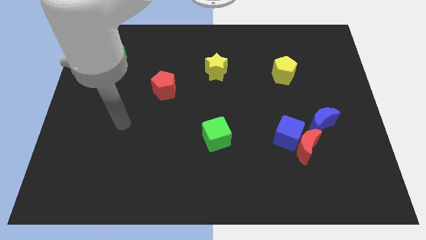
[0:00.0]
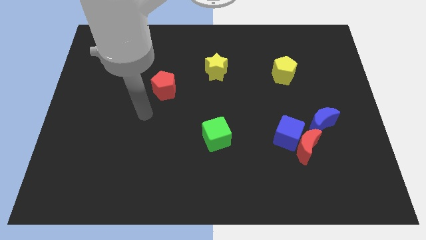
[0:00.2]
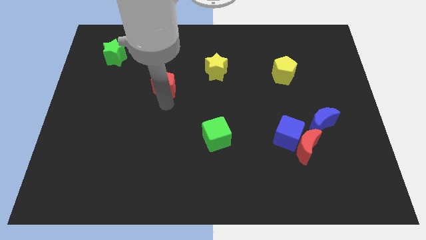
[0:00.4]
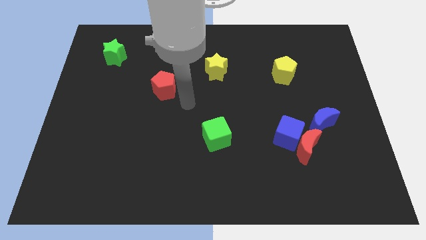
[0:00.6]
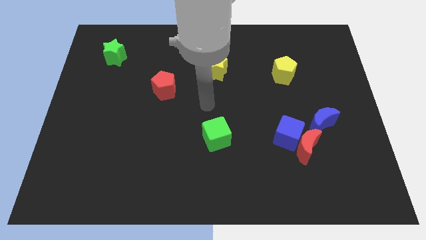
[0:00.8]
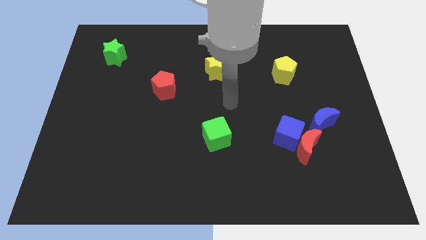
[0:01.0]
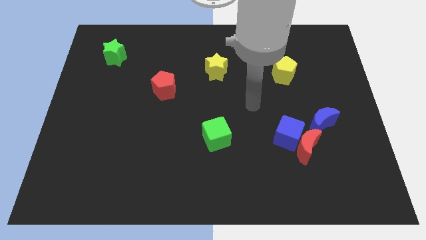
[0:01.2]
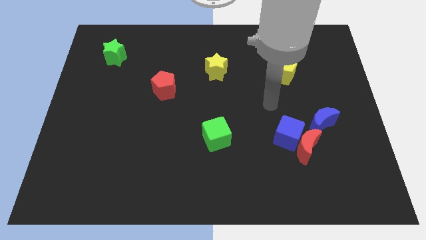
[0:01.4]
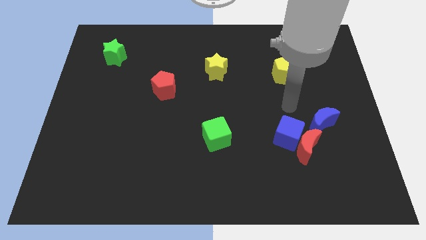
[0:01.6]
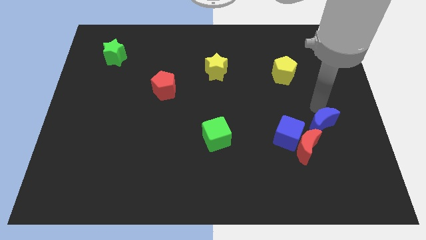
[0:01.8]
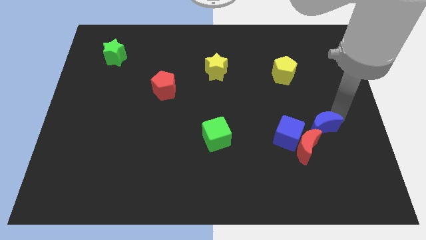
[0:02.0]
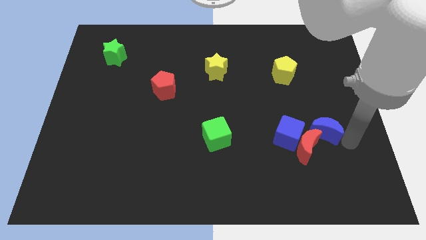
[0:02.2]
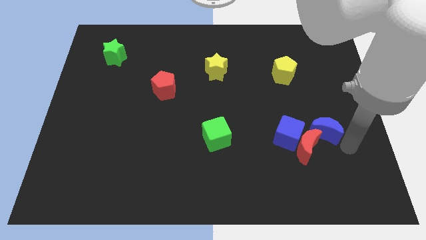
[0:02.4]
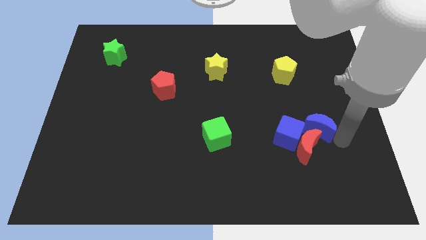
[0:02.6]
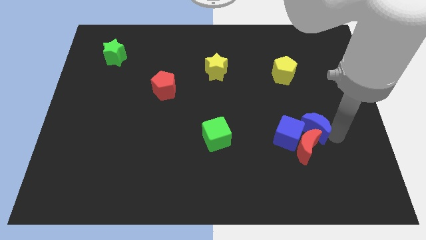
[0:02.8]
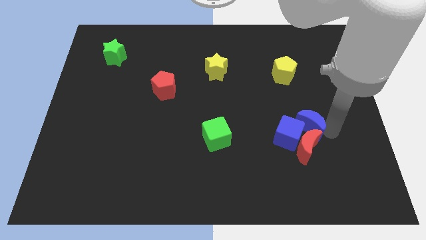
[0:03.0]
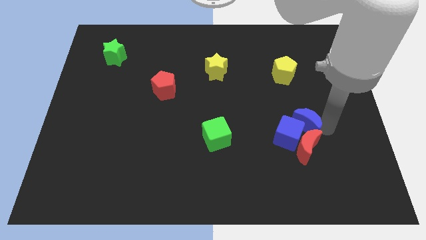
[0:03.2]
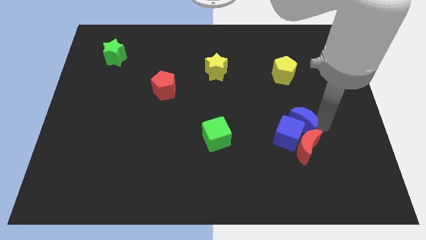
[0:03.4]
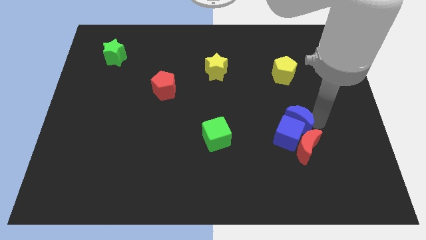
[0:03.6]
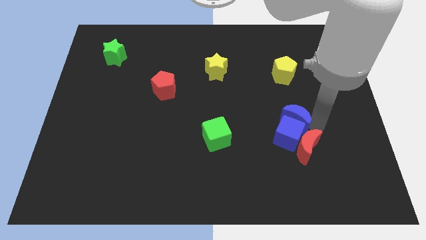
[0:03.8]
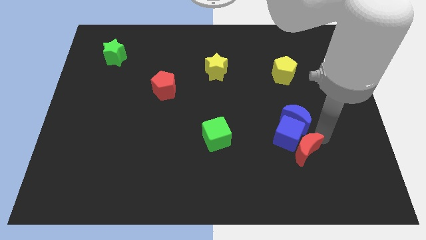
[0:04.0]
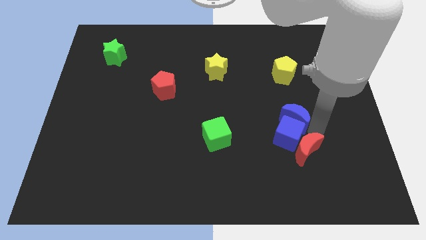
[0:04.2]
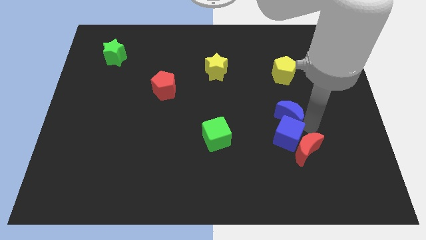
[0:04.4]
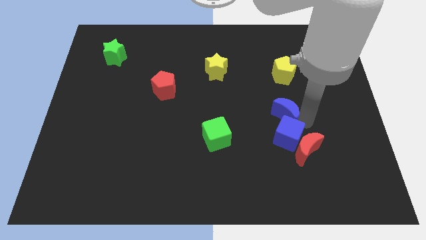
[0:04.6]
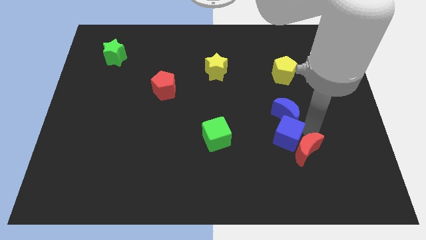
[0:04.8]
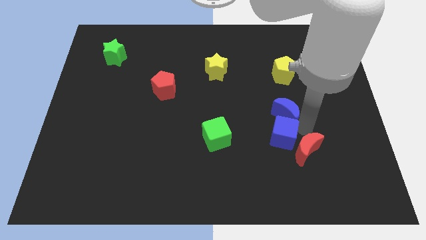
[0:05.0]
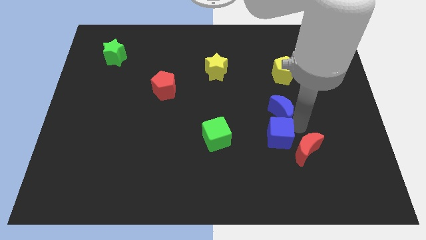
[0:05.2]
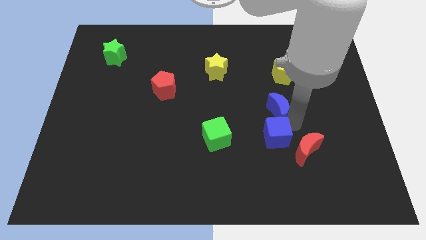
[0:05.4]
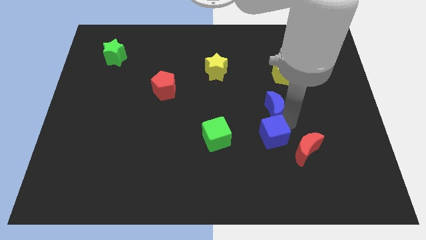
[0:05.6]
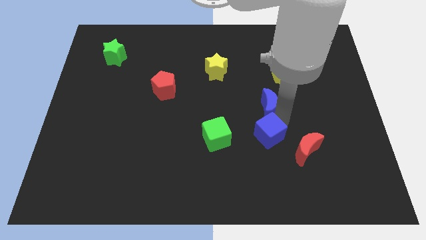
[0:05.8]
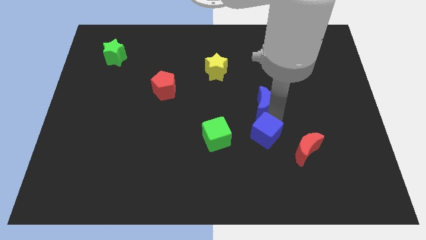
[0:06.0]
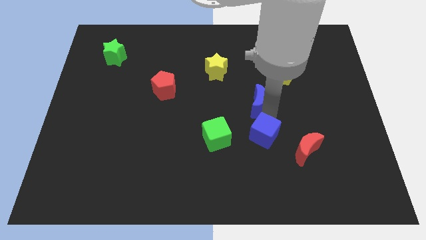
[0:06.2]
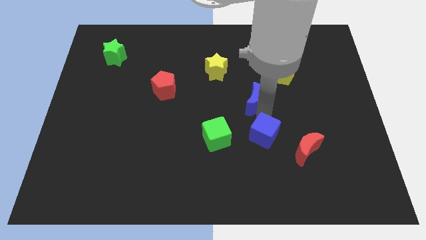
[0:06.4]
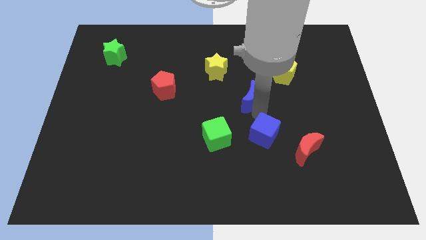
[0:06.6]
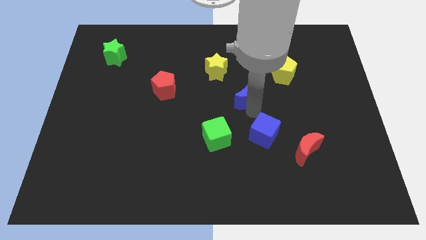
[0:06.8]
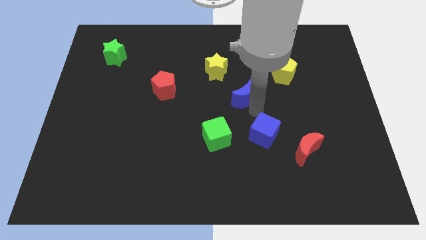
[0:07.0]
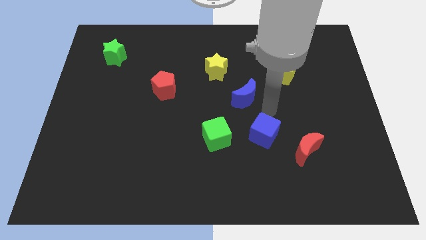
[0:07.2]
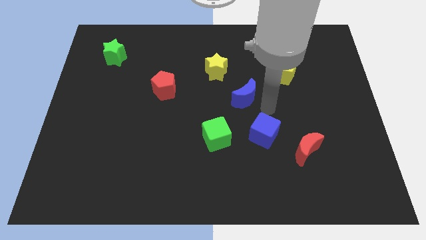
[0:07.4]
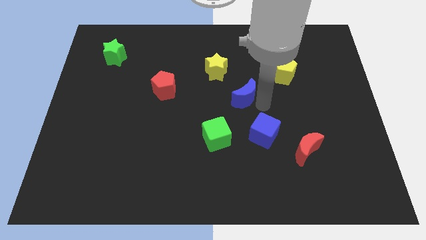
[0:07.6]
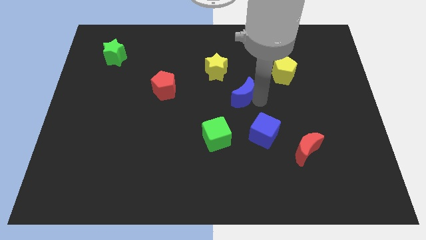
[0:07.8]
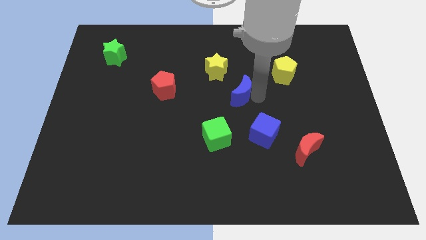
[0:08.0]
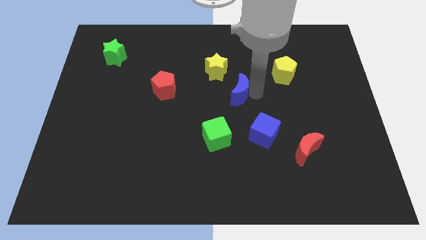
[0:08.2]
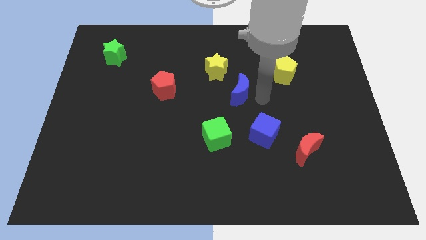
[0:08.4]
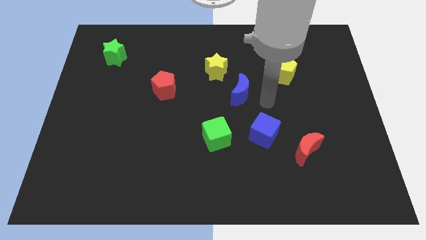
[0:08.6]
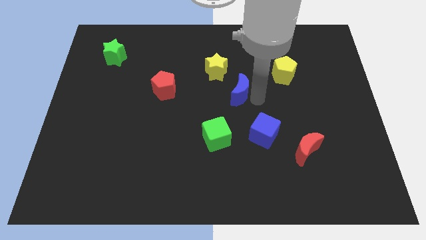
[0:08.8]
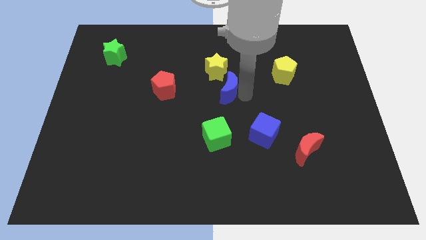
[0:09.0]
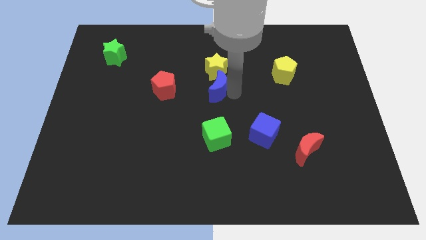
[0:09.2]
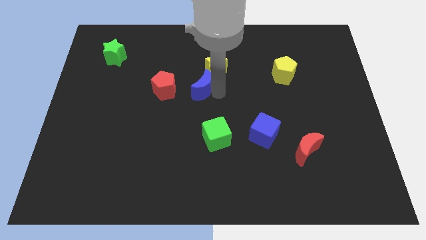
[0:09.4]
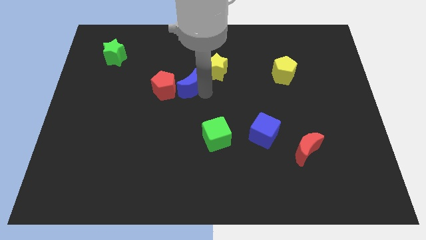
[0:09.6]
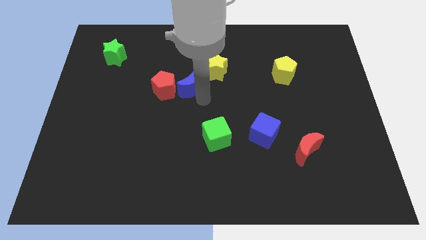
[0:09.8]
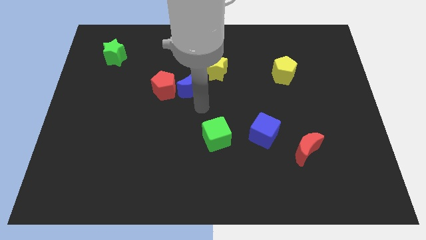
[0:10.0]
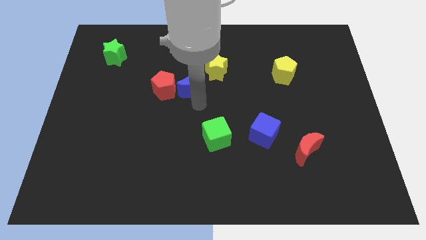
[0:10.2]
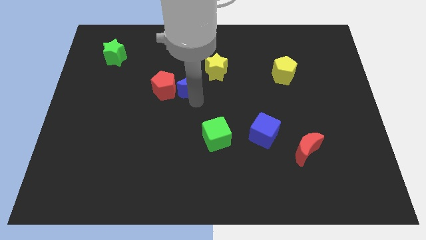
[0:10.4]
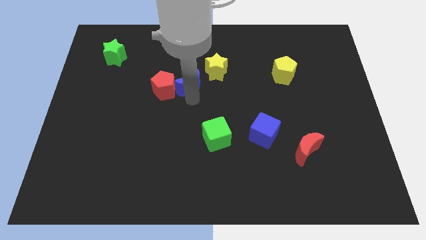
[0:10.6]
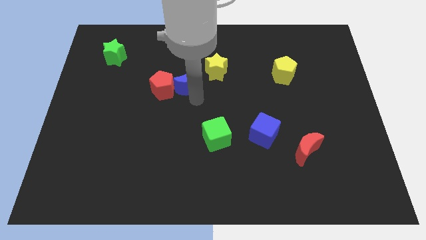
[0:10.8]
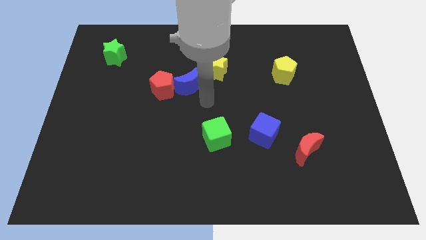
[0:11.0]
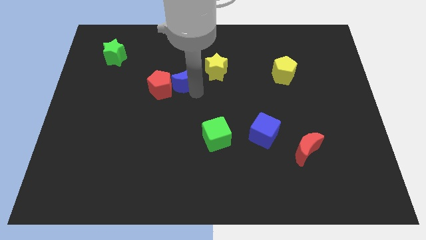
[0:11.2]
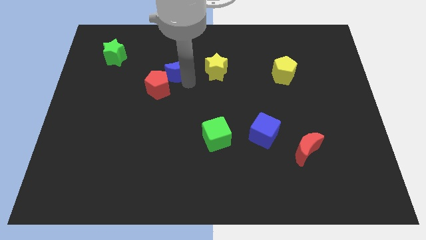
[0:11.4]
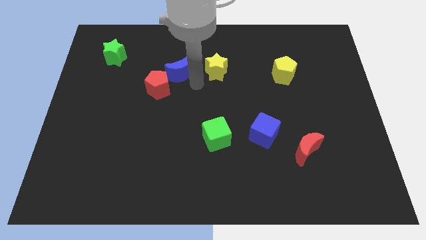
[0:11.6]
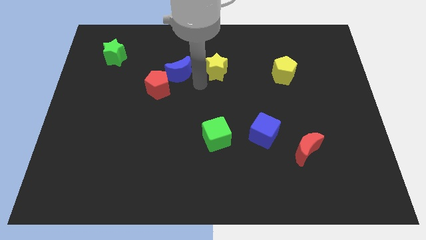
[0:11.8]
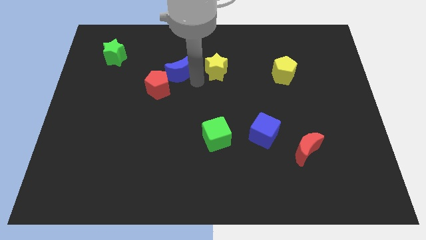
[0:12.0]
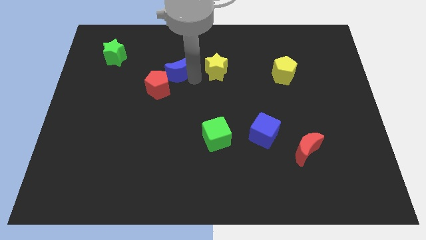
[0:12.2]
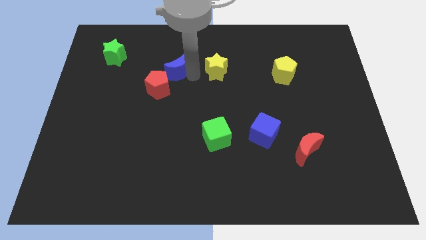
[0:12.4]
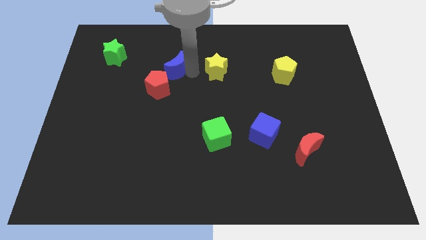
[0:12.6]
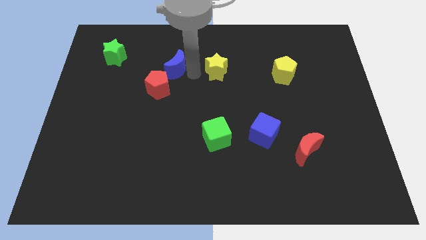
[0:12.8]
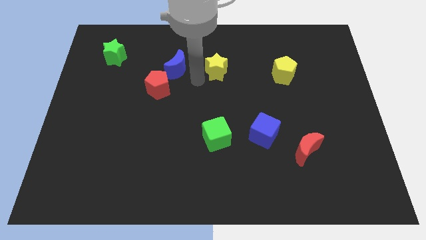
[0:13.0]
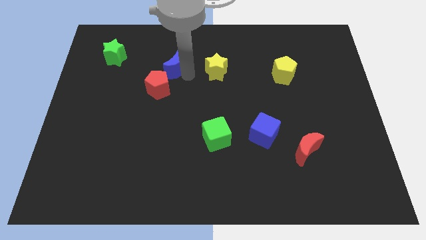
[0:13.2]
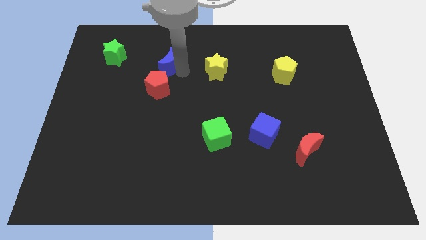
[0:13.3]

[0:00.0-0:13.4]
slide the blue moon just right of the green star

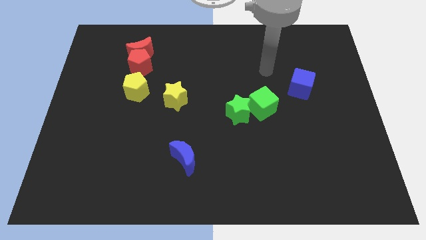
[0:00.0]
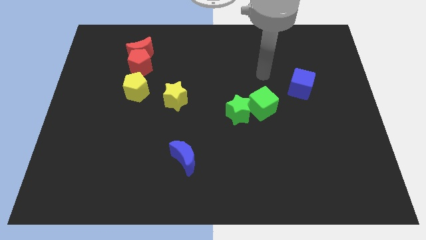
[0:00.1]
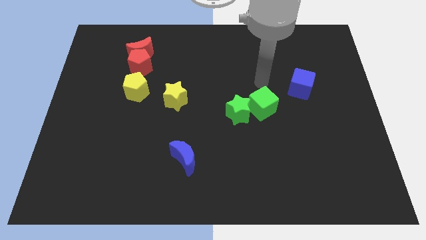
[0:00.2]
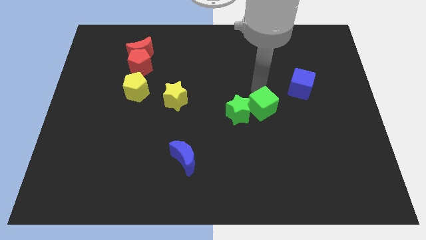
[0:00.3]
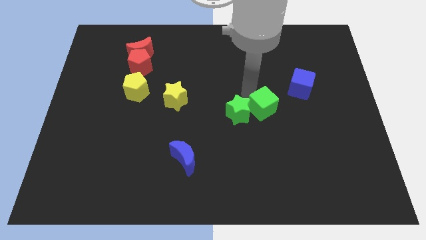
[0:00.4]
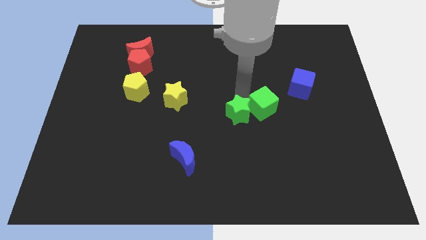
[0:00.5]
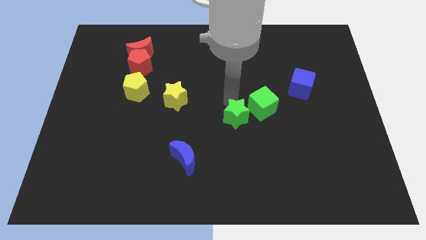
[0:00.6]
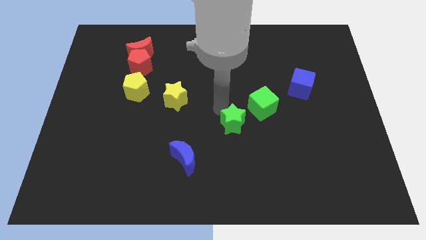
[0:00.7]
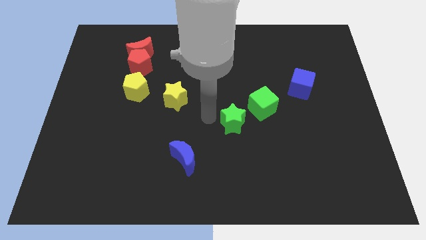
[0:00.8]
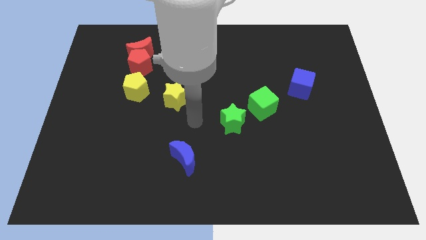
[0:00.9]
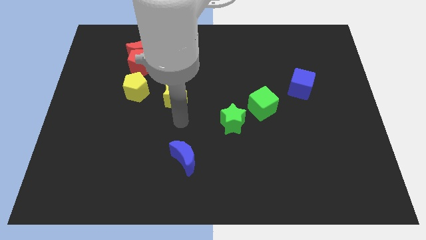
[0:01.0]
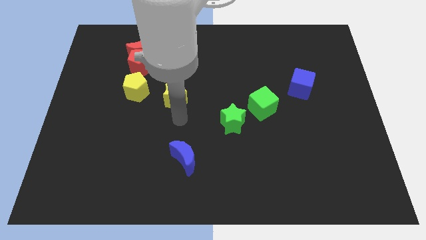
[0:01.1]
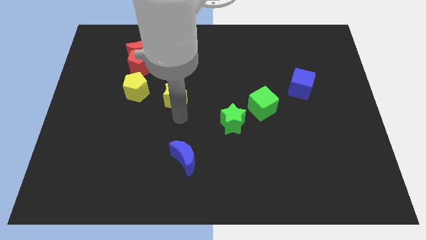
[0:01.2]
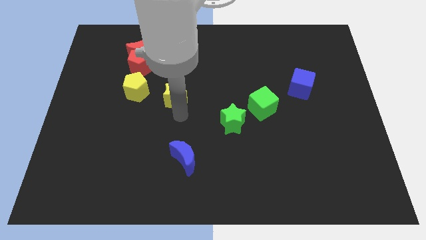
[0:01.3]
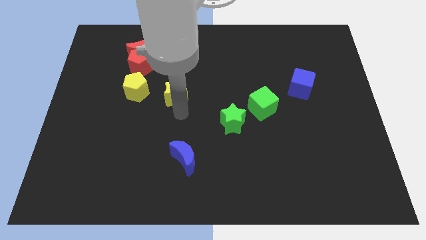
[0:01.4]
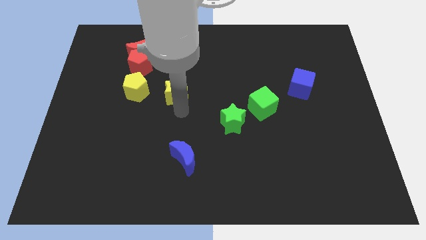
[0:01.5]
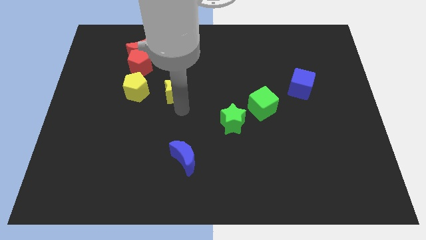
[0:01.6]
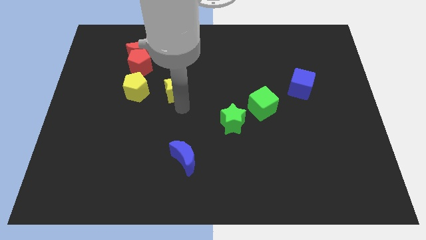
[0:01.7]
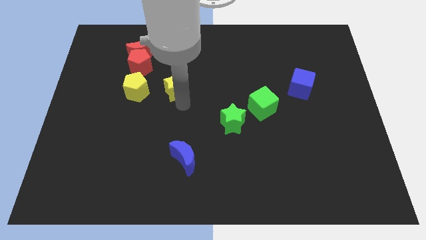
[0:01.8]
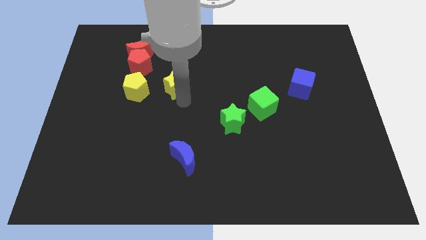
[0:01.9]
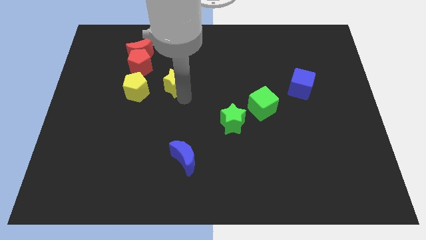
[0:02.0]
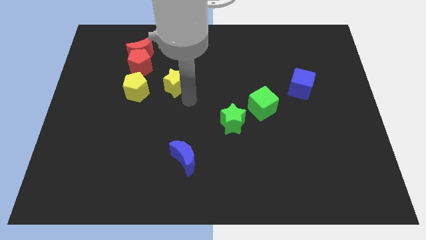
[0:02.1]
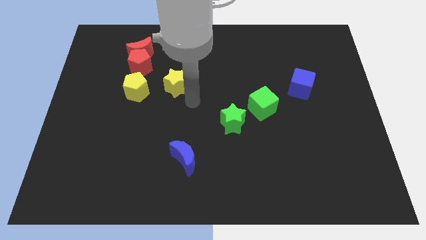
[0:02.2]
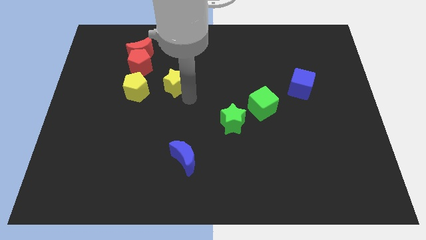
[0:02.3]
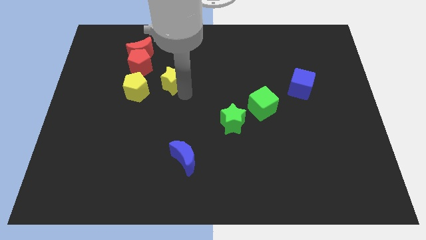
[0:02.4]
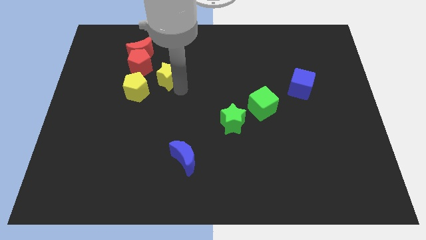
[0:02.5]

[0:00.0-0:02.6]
slide the yellow star to the bottom right side of the red moon
